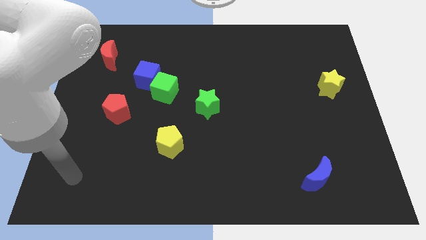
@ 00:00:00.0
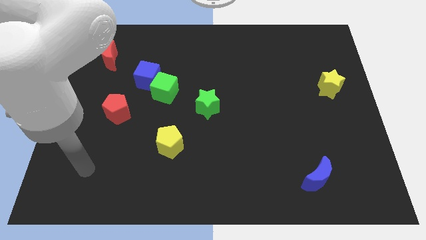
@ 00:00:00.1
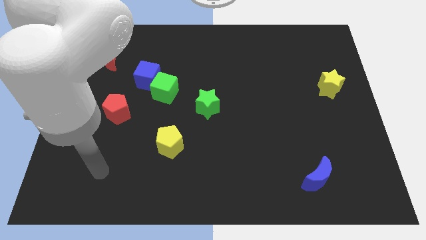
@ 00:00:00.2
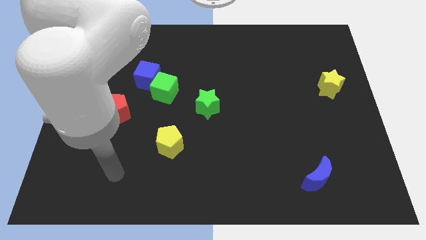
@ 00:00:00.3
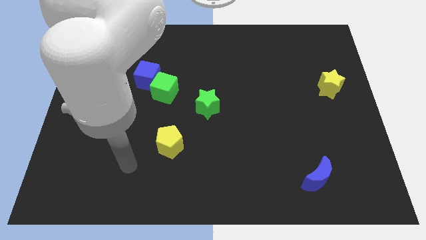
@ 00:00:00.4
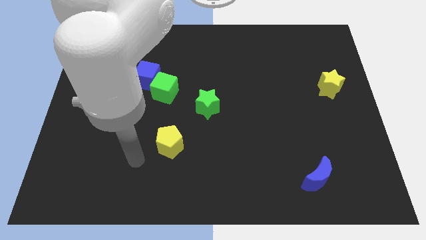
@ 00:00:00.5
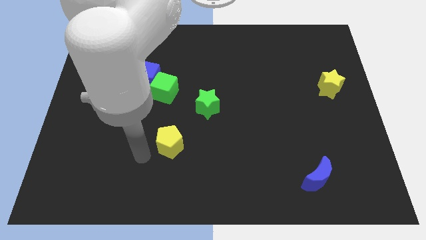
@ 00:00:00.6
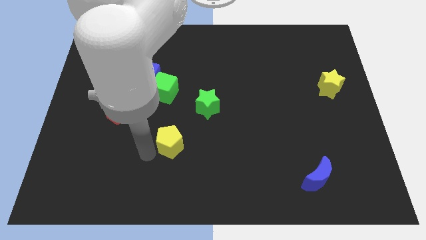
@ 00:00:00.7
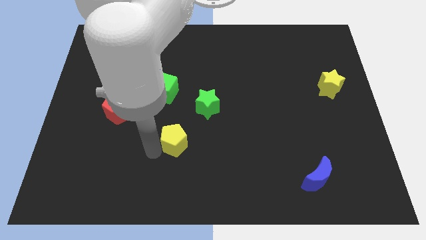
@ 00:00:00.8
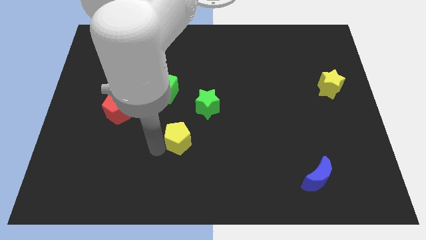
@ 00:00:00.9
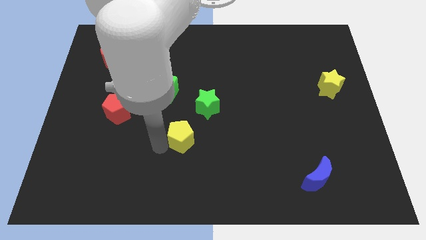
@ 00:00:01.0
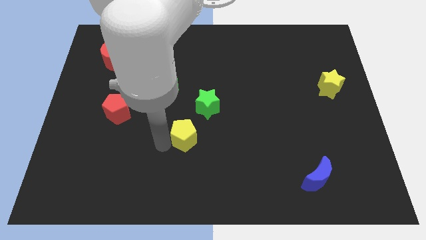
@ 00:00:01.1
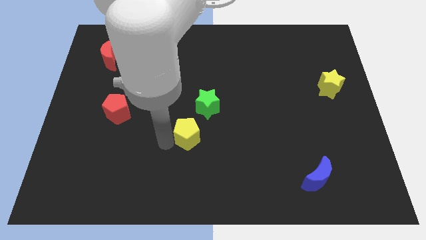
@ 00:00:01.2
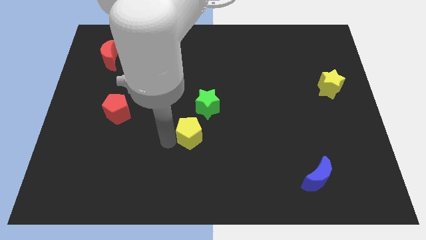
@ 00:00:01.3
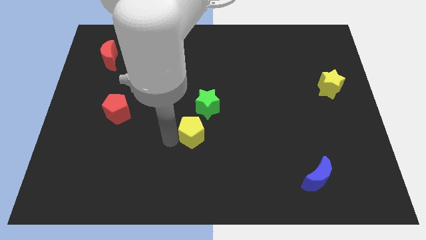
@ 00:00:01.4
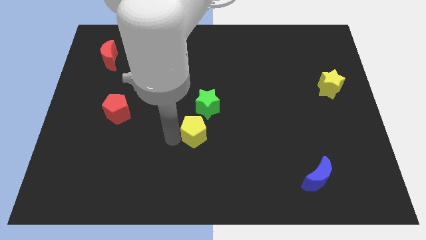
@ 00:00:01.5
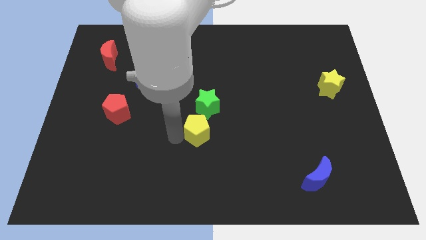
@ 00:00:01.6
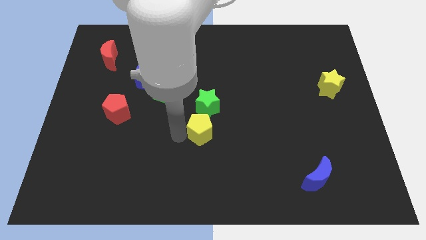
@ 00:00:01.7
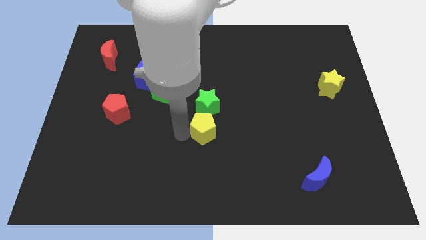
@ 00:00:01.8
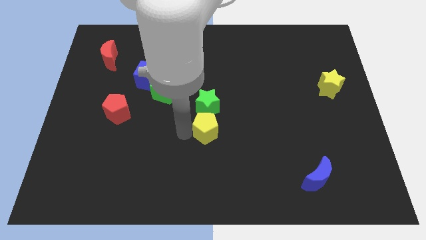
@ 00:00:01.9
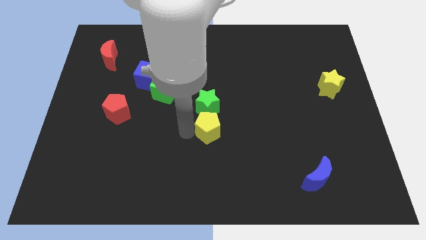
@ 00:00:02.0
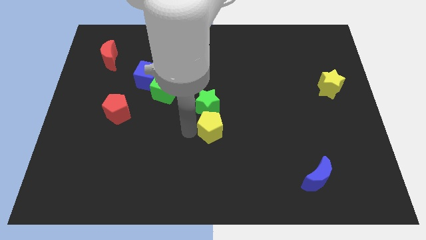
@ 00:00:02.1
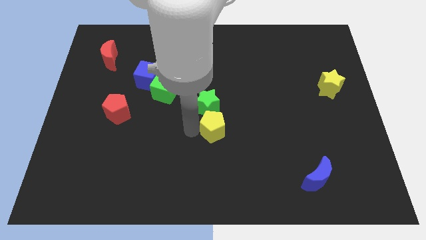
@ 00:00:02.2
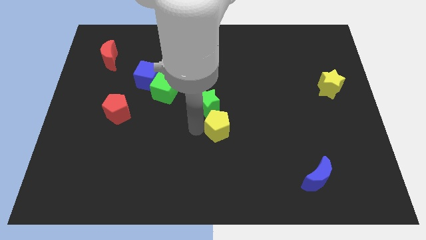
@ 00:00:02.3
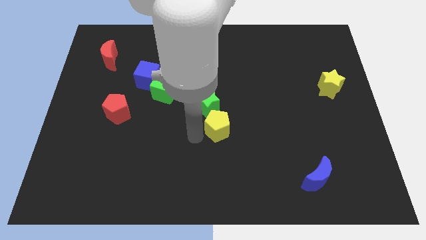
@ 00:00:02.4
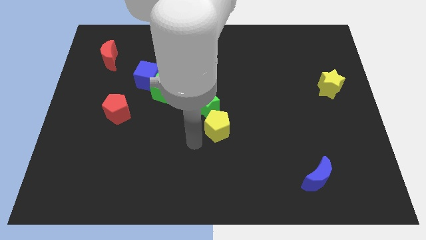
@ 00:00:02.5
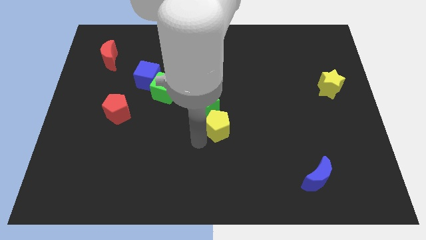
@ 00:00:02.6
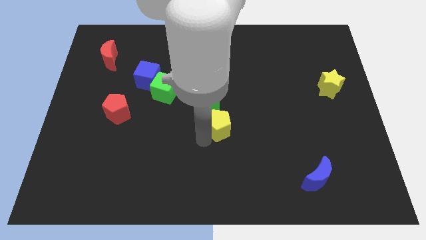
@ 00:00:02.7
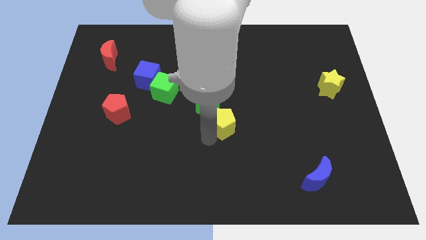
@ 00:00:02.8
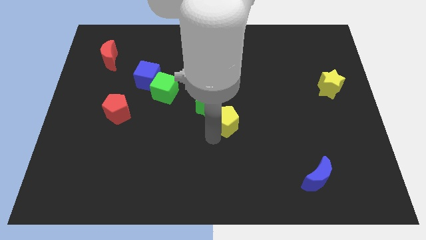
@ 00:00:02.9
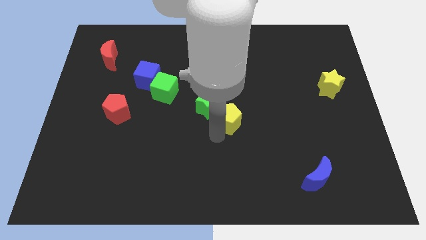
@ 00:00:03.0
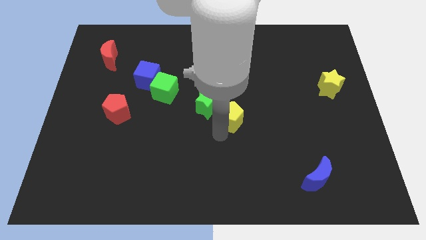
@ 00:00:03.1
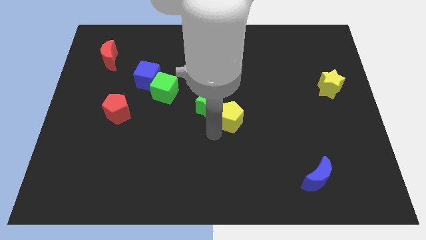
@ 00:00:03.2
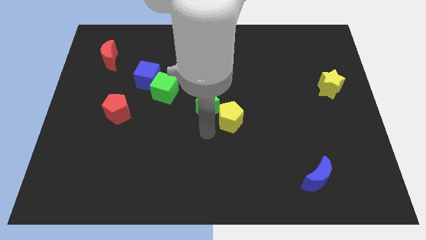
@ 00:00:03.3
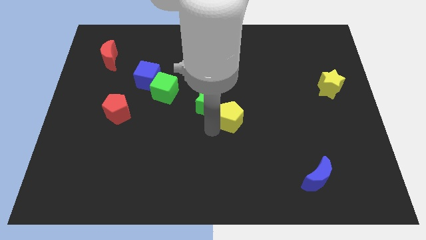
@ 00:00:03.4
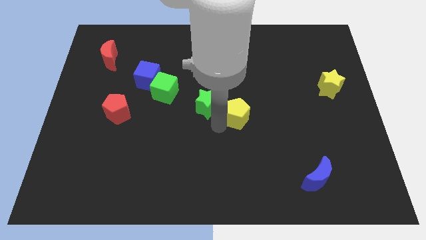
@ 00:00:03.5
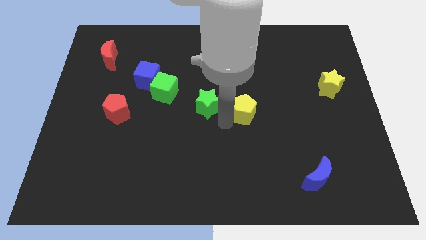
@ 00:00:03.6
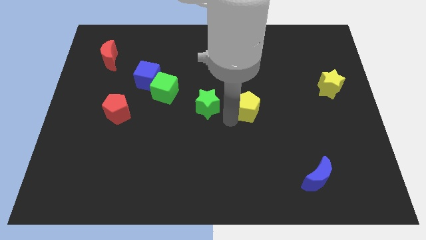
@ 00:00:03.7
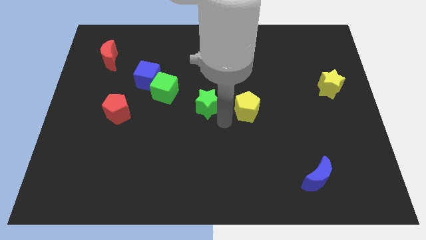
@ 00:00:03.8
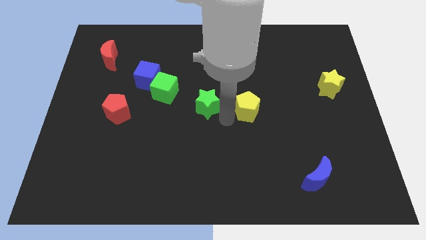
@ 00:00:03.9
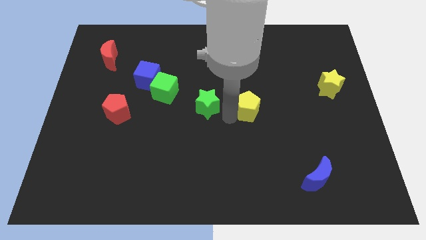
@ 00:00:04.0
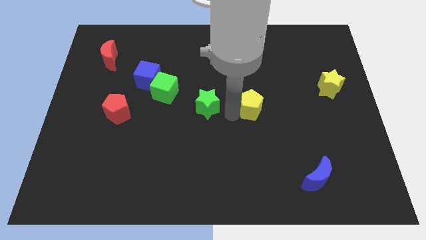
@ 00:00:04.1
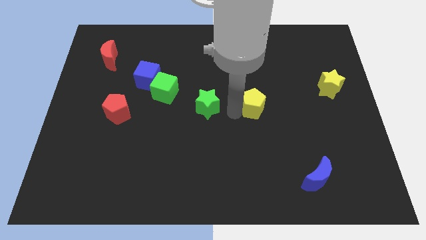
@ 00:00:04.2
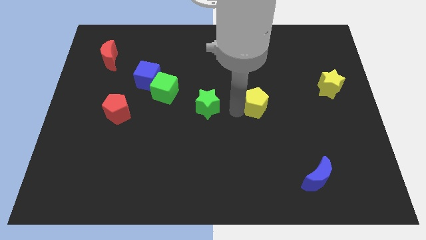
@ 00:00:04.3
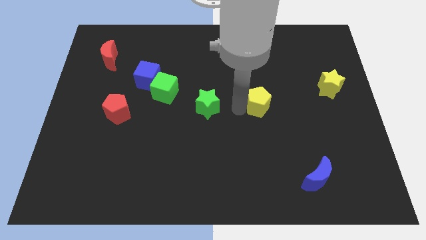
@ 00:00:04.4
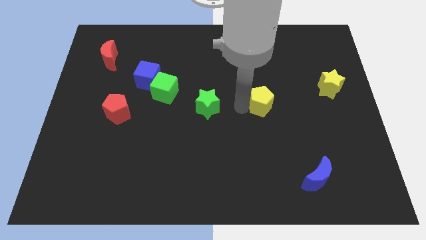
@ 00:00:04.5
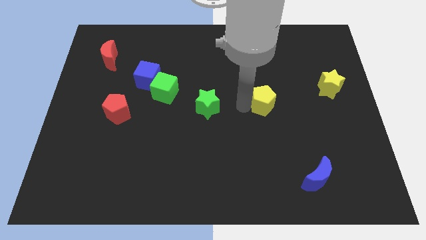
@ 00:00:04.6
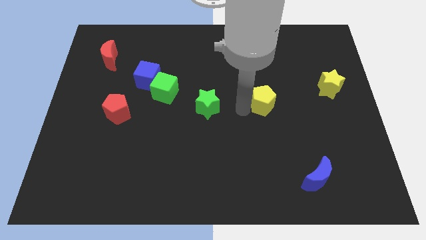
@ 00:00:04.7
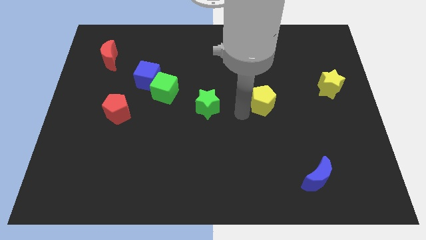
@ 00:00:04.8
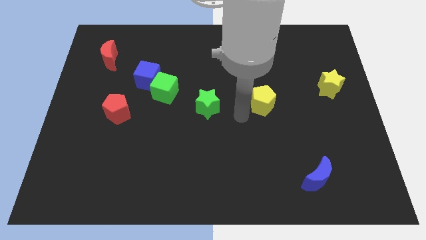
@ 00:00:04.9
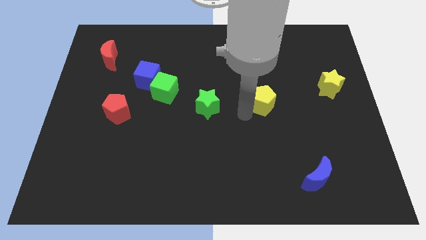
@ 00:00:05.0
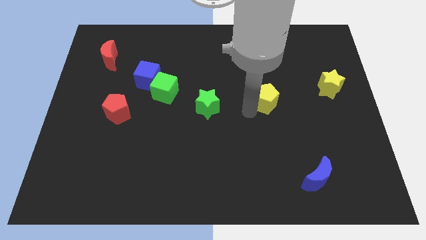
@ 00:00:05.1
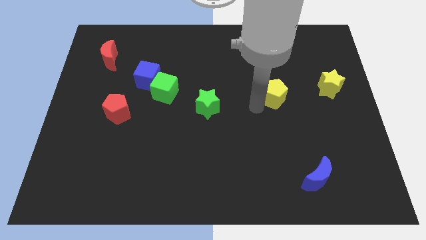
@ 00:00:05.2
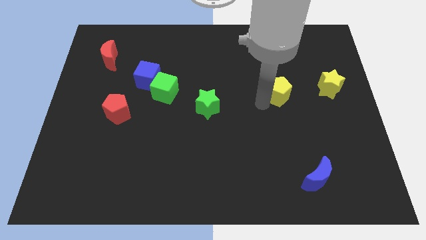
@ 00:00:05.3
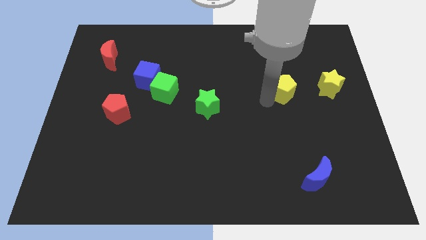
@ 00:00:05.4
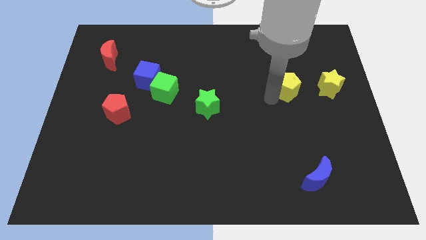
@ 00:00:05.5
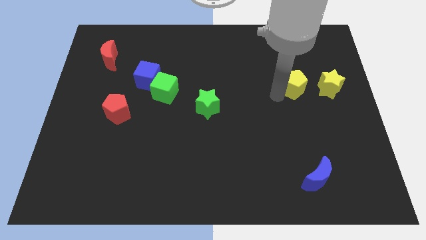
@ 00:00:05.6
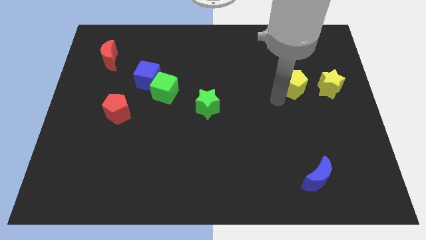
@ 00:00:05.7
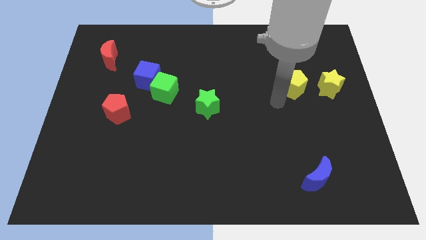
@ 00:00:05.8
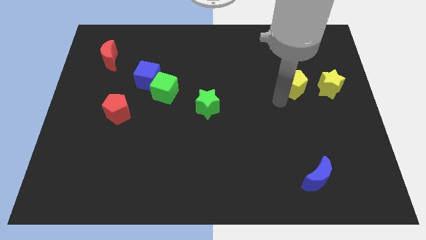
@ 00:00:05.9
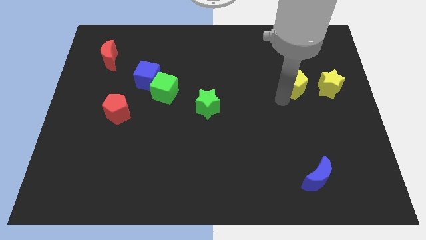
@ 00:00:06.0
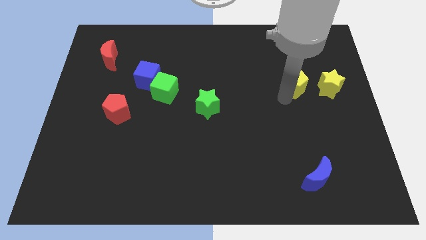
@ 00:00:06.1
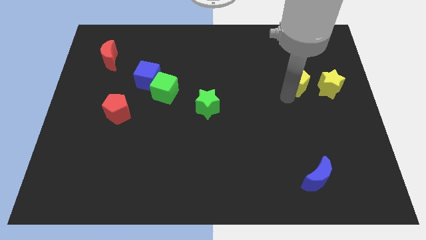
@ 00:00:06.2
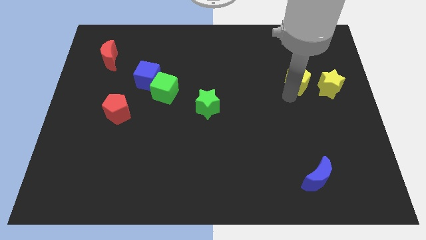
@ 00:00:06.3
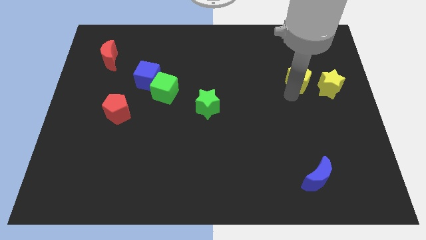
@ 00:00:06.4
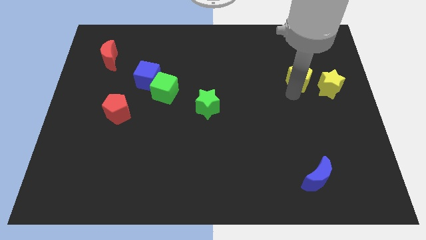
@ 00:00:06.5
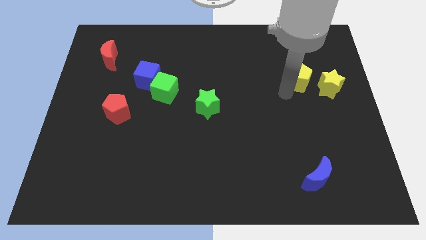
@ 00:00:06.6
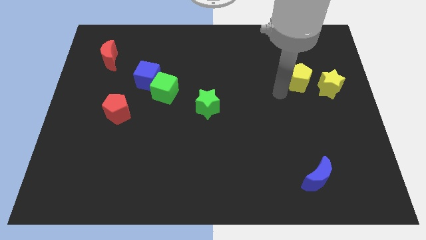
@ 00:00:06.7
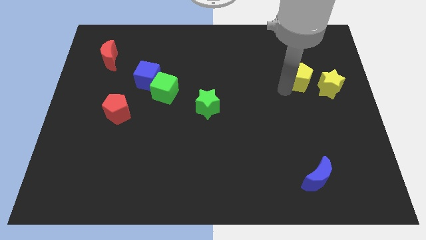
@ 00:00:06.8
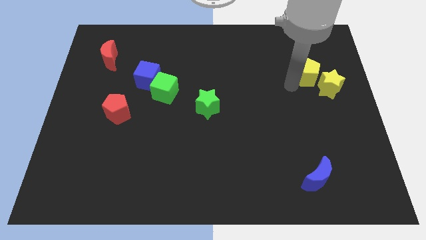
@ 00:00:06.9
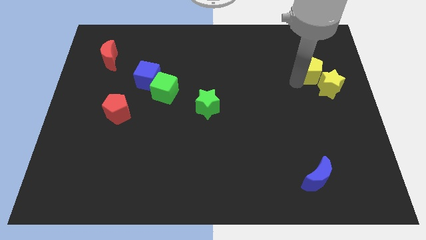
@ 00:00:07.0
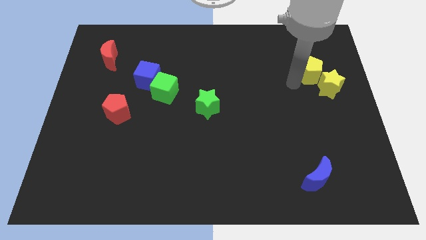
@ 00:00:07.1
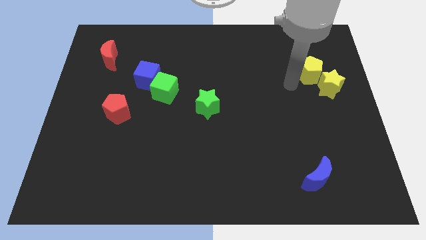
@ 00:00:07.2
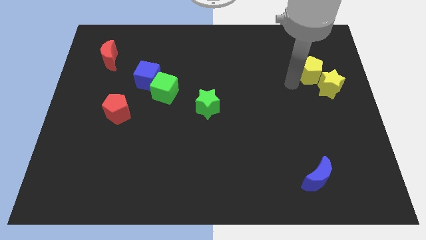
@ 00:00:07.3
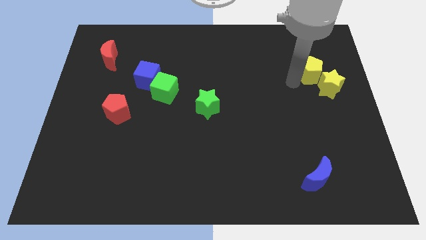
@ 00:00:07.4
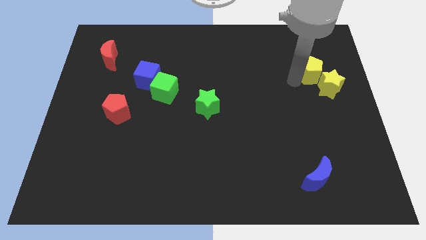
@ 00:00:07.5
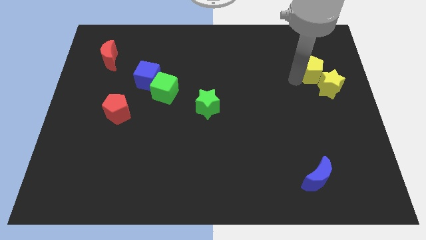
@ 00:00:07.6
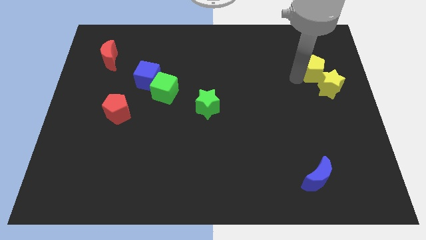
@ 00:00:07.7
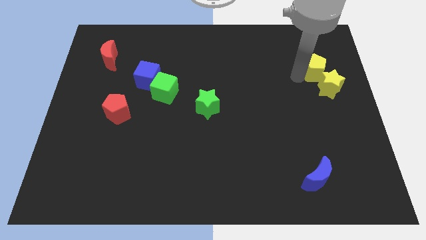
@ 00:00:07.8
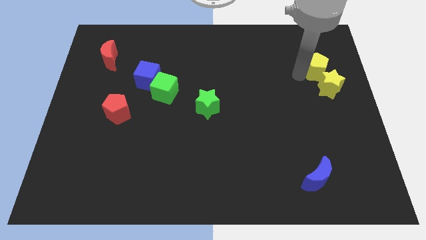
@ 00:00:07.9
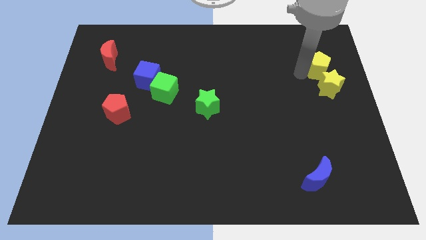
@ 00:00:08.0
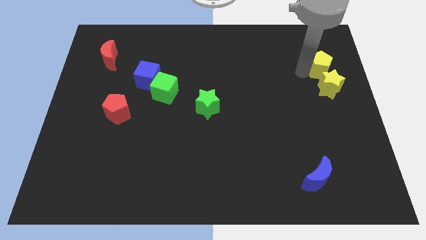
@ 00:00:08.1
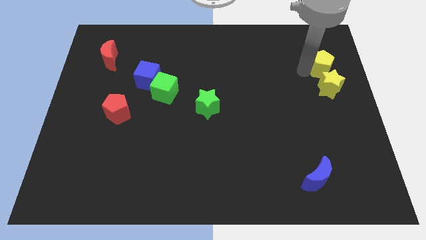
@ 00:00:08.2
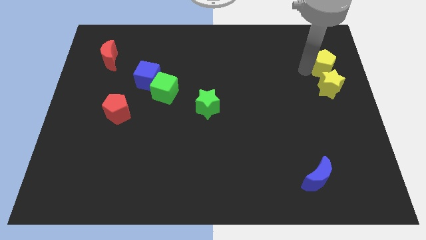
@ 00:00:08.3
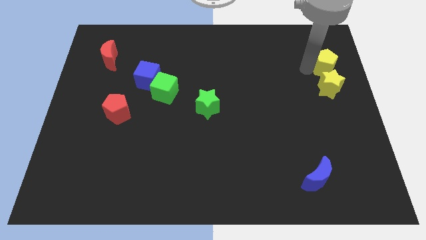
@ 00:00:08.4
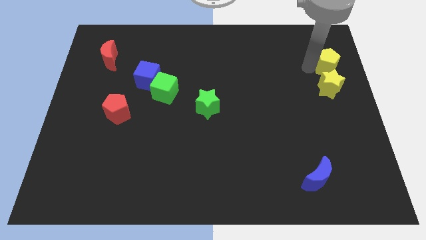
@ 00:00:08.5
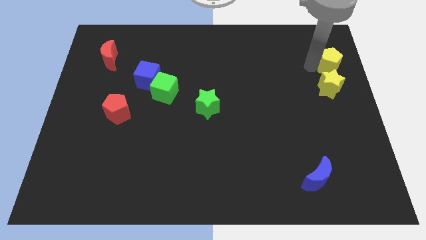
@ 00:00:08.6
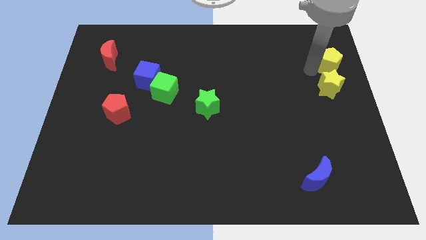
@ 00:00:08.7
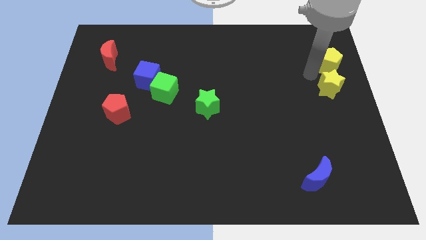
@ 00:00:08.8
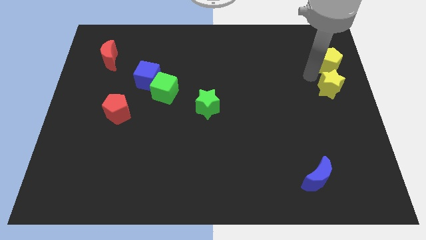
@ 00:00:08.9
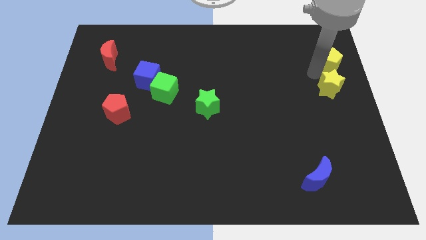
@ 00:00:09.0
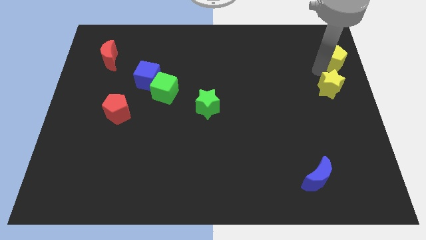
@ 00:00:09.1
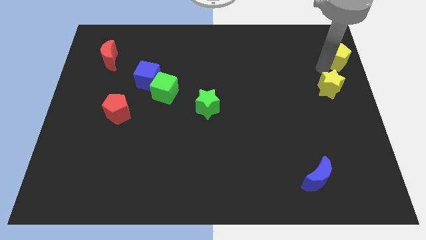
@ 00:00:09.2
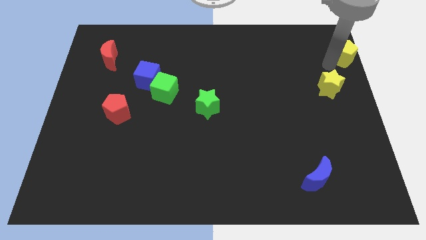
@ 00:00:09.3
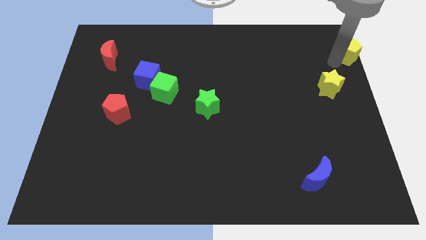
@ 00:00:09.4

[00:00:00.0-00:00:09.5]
put the yellow pentagon to the upper right corner
